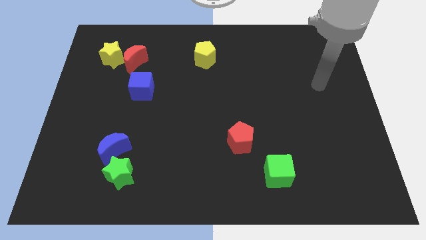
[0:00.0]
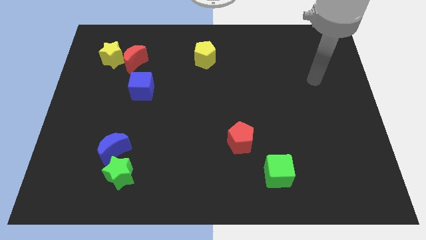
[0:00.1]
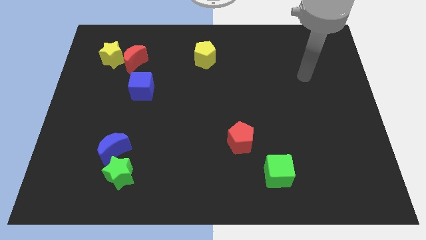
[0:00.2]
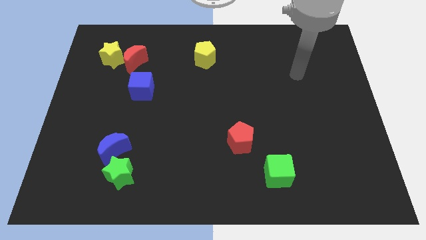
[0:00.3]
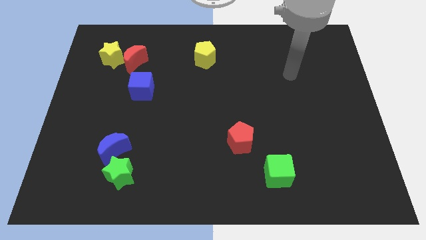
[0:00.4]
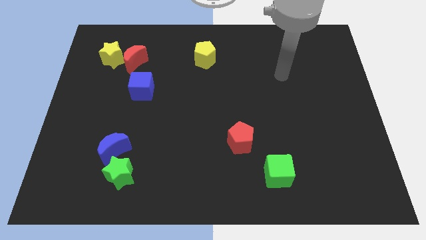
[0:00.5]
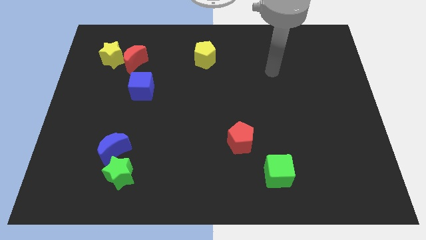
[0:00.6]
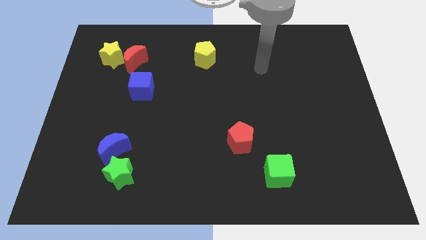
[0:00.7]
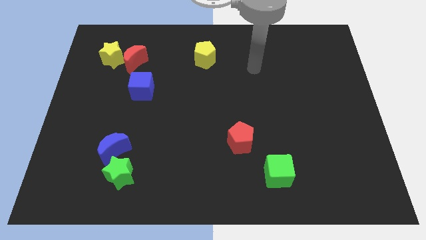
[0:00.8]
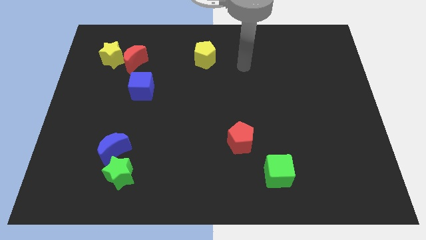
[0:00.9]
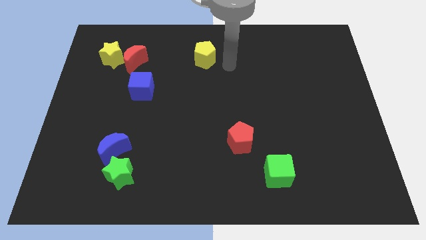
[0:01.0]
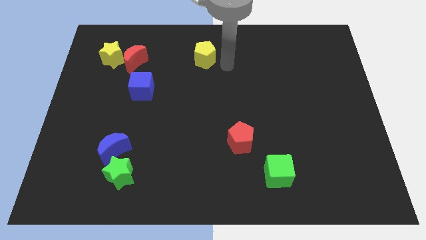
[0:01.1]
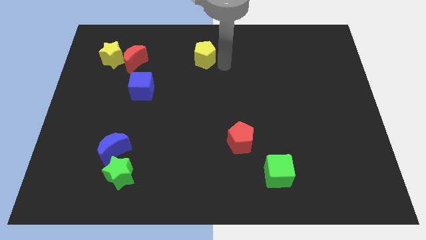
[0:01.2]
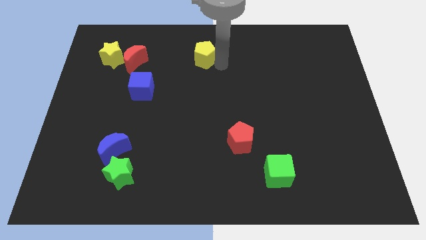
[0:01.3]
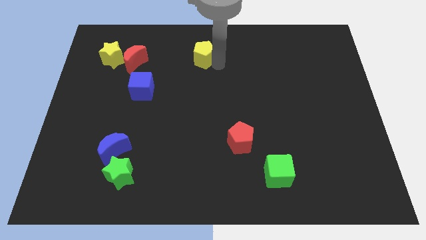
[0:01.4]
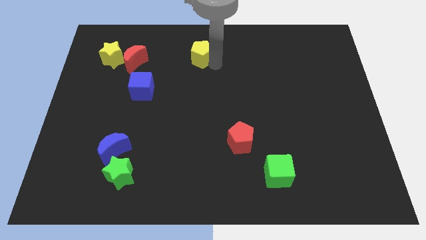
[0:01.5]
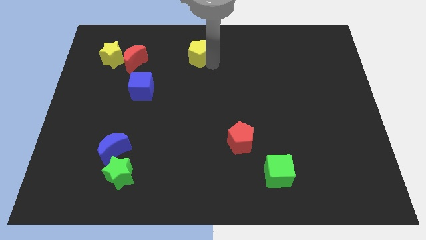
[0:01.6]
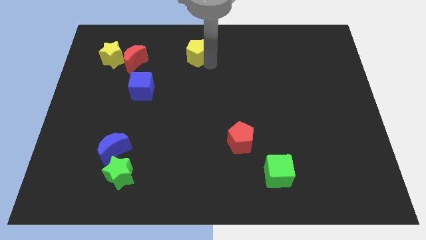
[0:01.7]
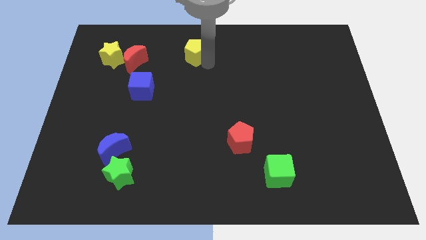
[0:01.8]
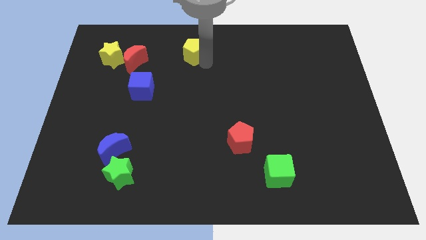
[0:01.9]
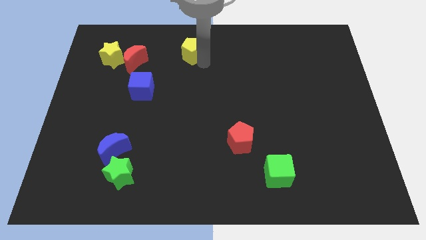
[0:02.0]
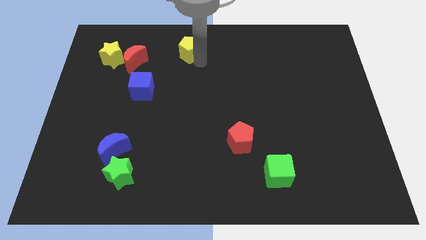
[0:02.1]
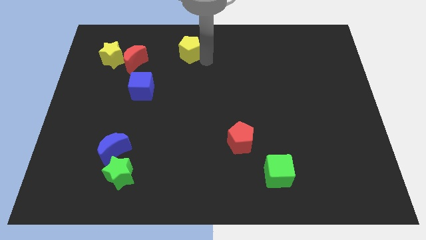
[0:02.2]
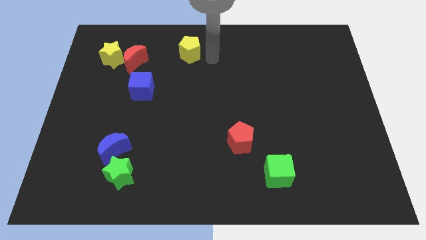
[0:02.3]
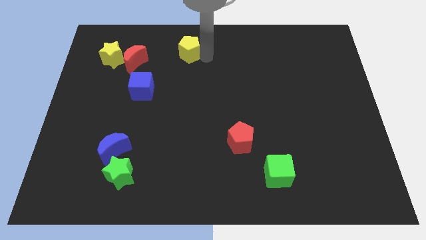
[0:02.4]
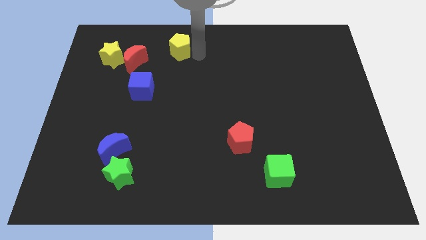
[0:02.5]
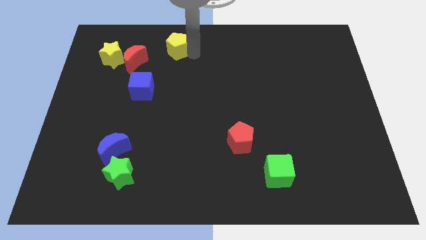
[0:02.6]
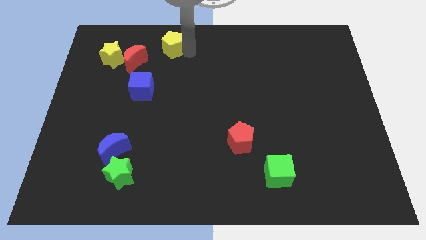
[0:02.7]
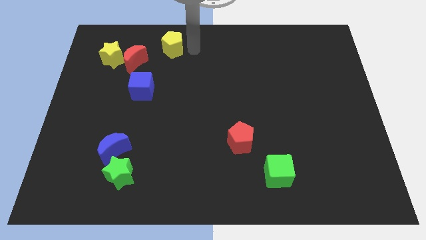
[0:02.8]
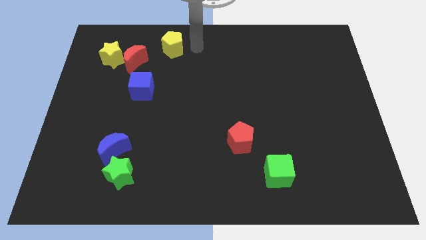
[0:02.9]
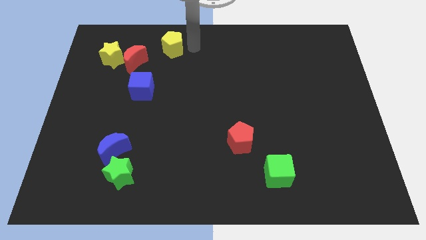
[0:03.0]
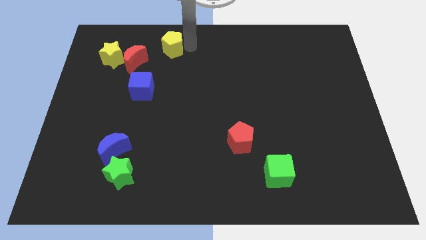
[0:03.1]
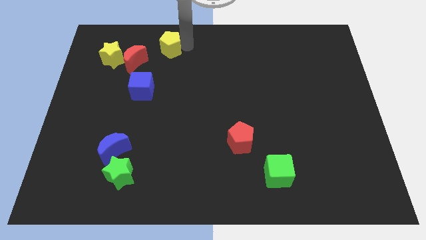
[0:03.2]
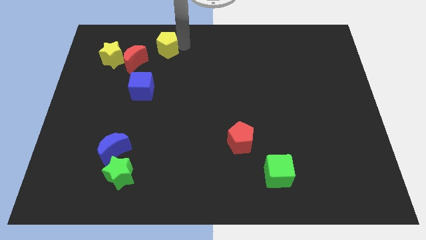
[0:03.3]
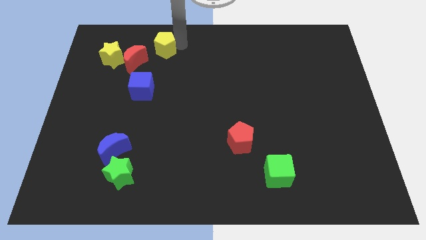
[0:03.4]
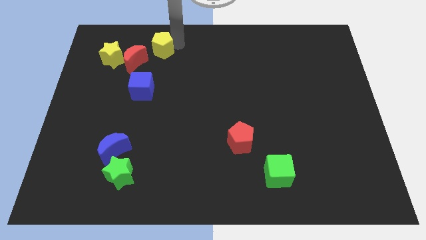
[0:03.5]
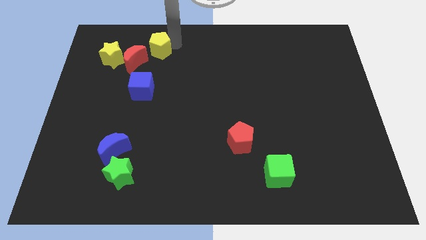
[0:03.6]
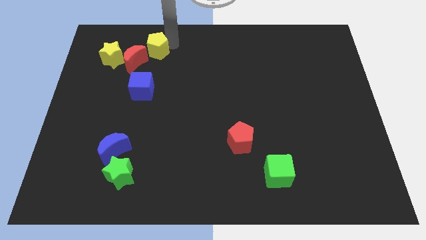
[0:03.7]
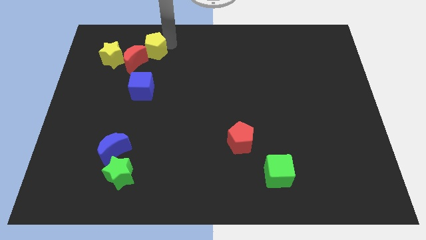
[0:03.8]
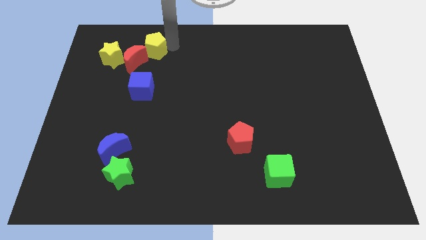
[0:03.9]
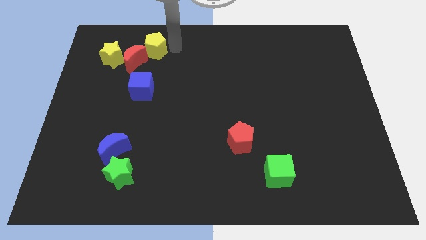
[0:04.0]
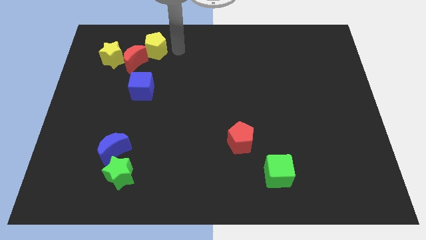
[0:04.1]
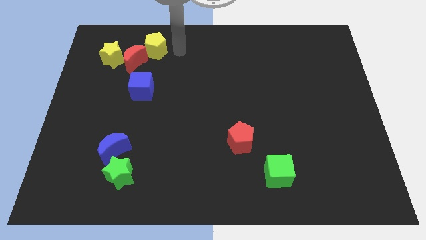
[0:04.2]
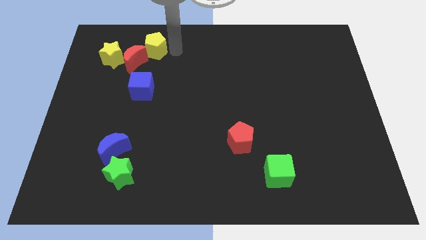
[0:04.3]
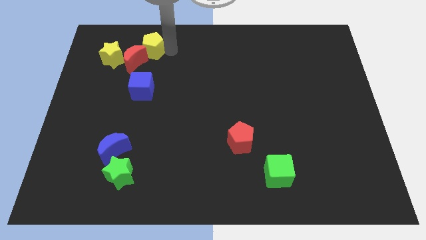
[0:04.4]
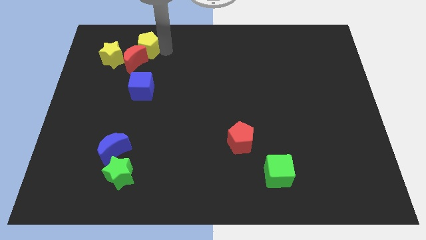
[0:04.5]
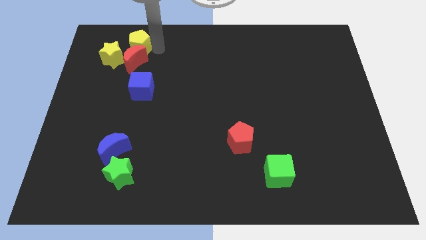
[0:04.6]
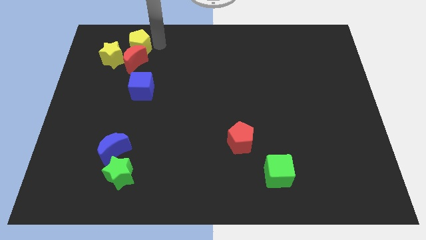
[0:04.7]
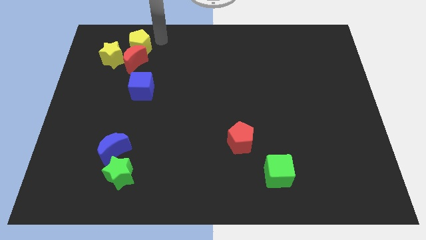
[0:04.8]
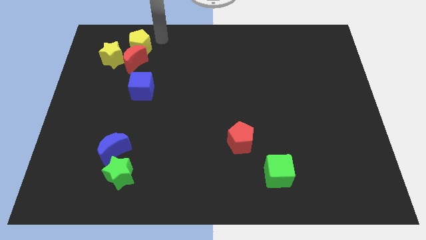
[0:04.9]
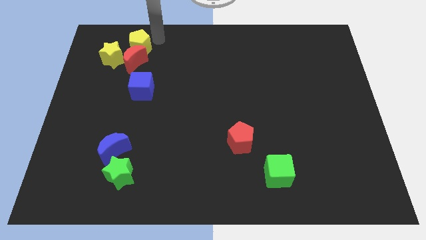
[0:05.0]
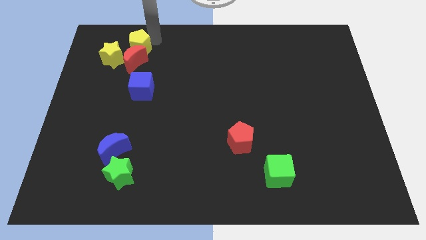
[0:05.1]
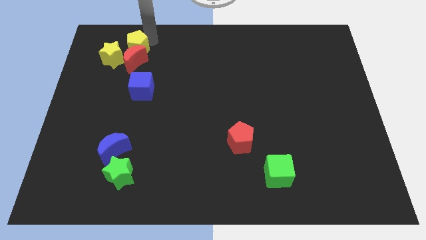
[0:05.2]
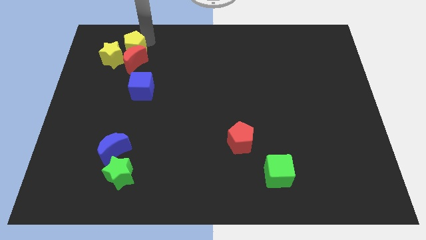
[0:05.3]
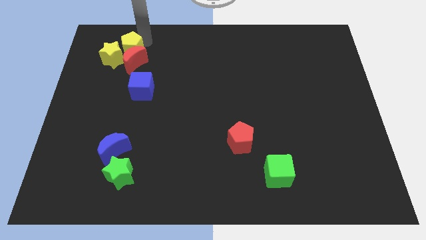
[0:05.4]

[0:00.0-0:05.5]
put the yellow pentagon next to the yellow star

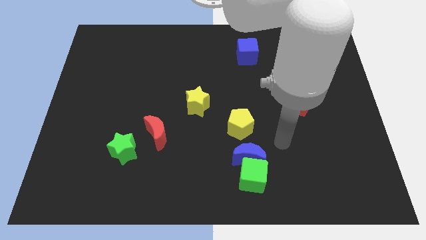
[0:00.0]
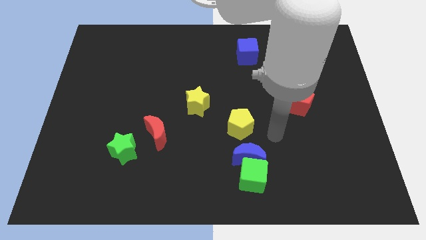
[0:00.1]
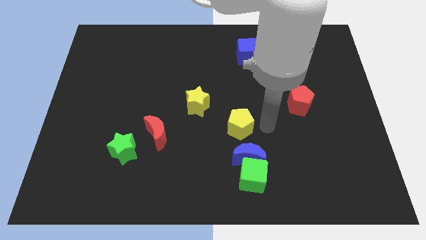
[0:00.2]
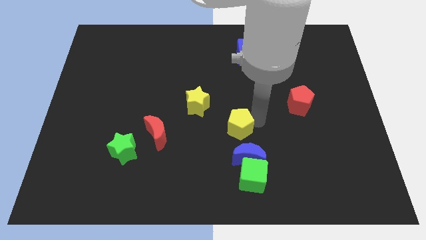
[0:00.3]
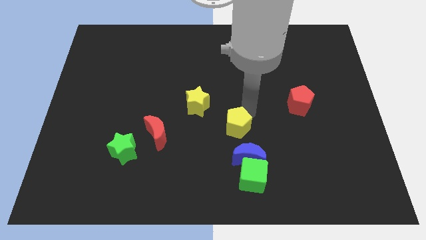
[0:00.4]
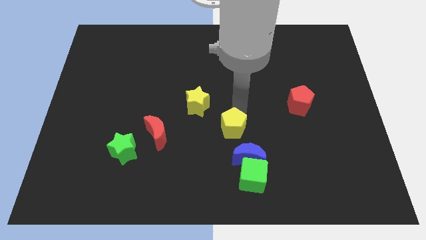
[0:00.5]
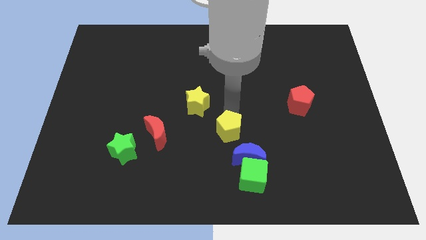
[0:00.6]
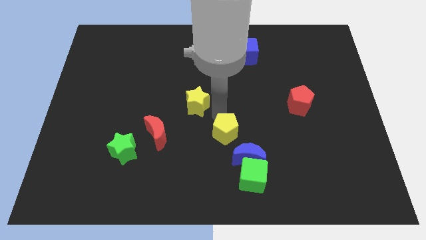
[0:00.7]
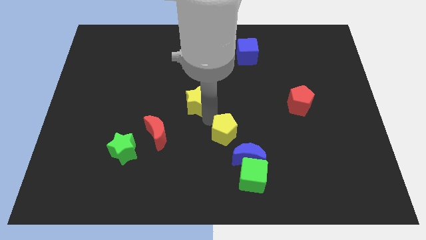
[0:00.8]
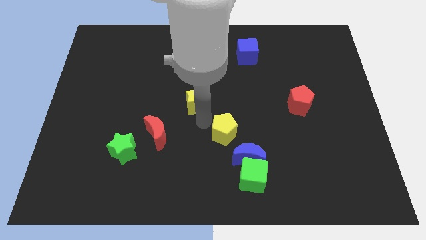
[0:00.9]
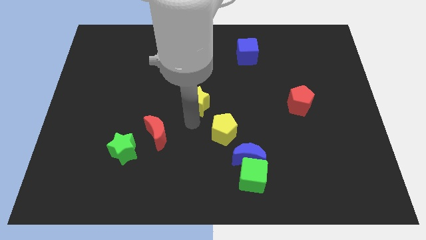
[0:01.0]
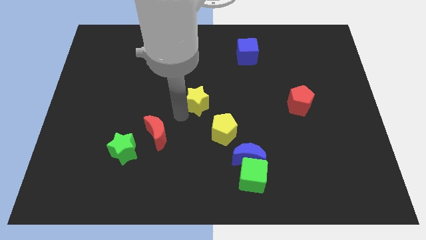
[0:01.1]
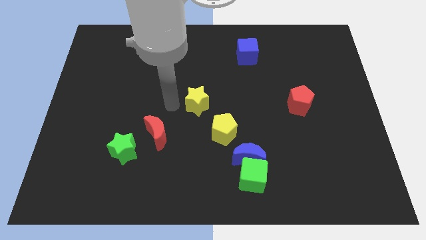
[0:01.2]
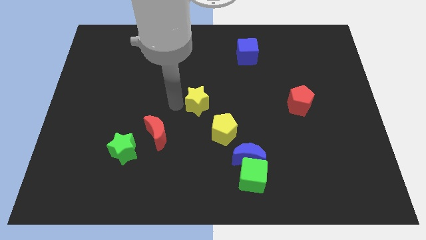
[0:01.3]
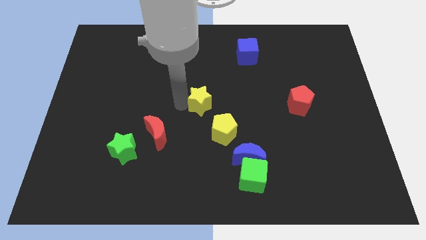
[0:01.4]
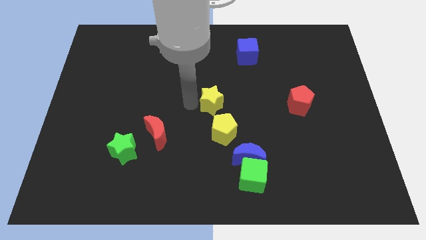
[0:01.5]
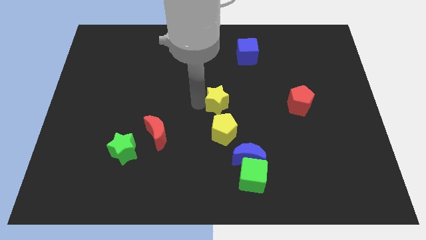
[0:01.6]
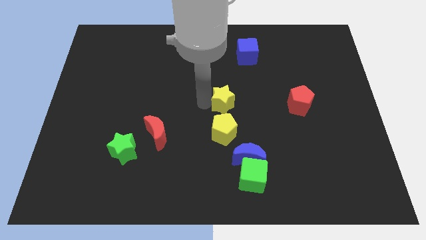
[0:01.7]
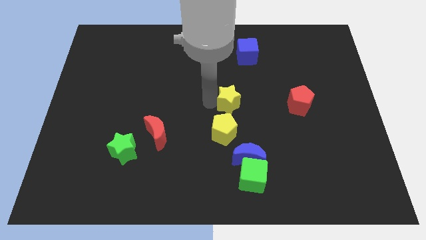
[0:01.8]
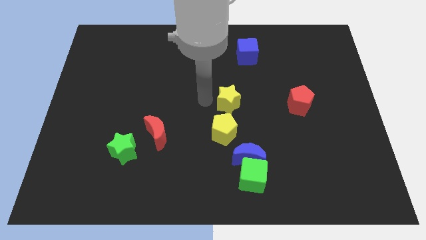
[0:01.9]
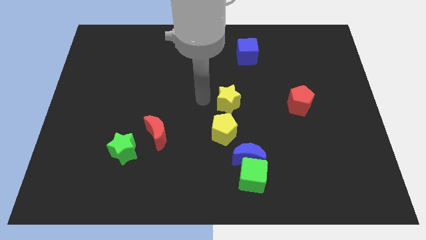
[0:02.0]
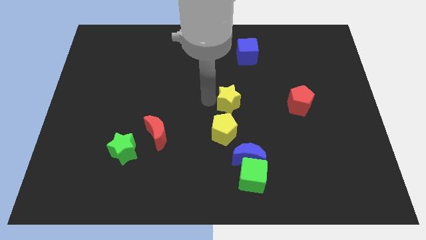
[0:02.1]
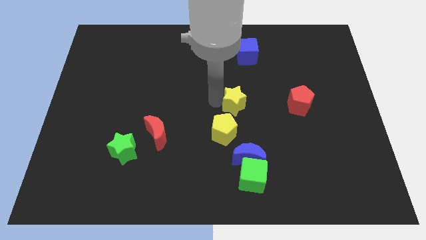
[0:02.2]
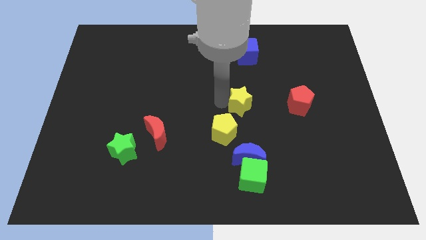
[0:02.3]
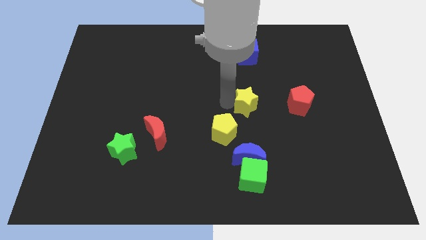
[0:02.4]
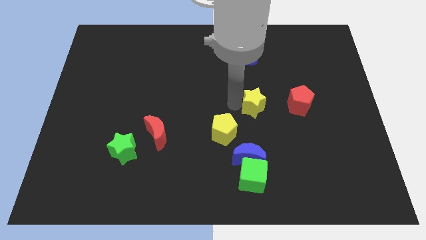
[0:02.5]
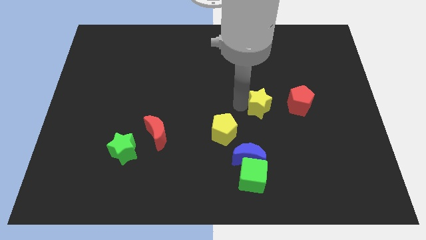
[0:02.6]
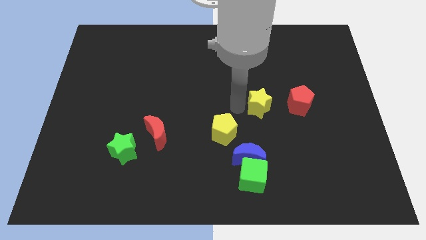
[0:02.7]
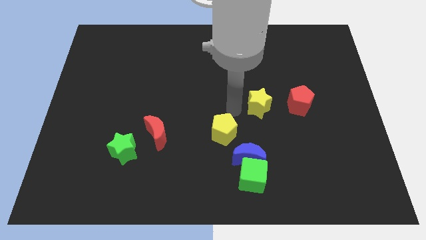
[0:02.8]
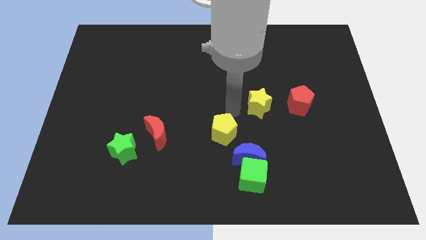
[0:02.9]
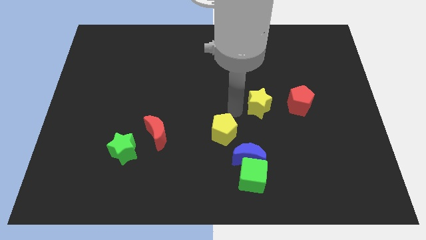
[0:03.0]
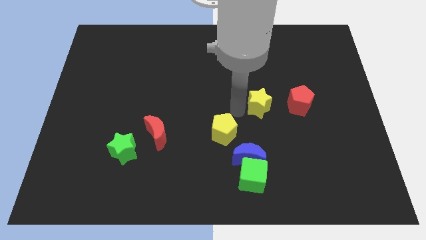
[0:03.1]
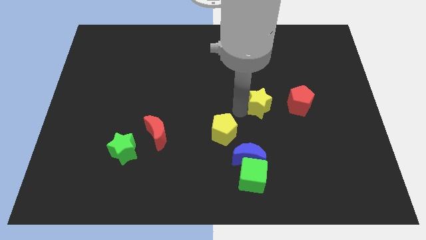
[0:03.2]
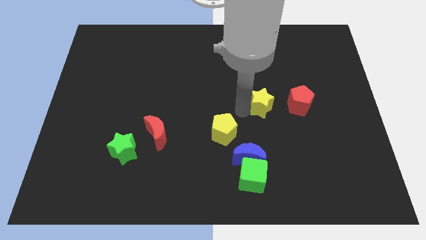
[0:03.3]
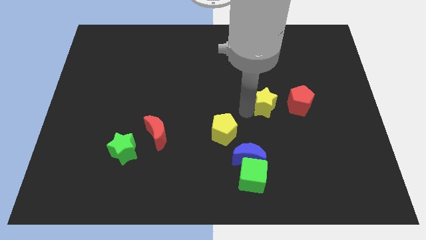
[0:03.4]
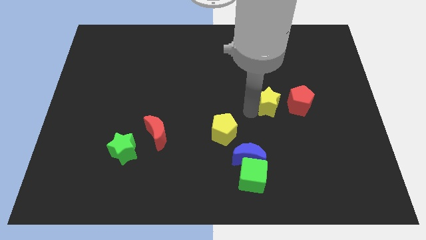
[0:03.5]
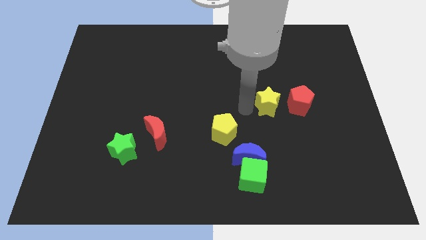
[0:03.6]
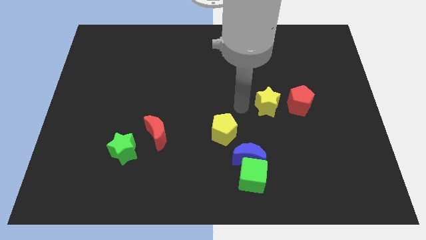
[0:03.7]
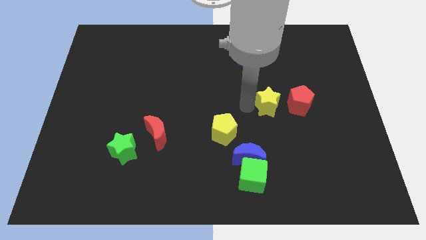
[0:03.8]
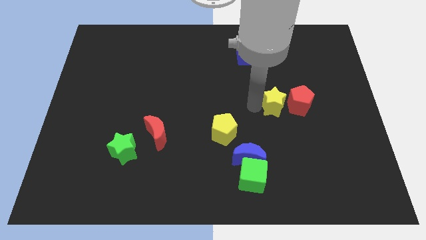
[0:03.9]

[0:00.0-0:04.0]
push the yellow star close to the red pentagon
